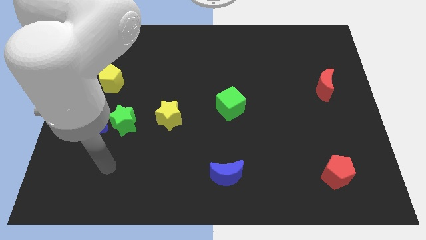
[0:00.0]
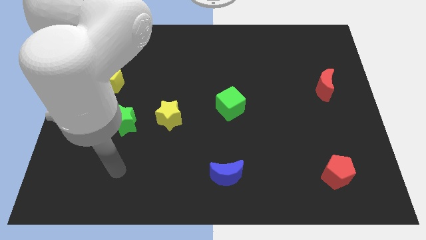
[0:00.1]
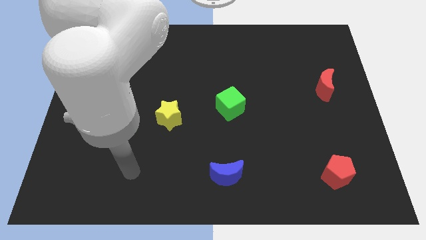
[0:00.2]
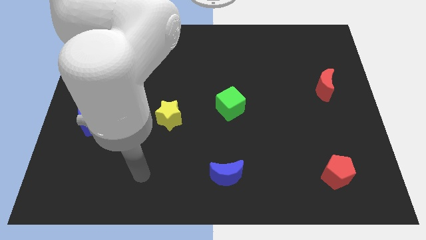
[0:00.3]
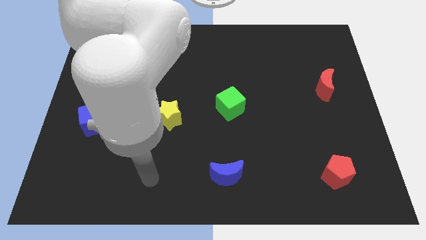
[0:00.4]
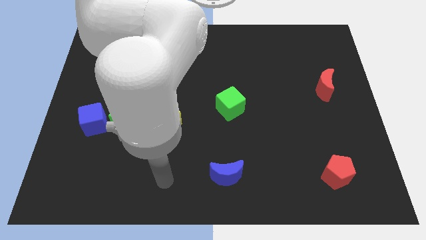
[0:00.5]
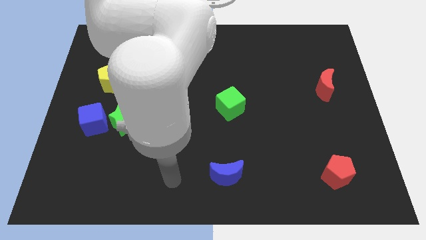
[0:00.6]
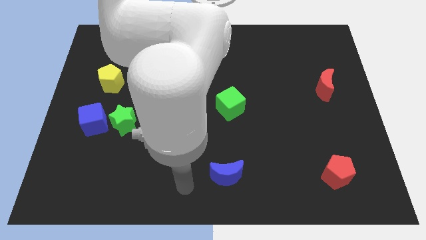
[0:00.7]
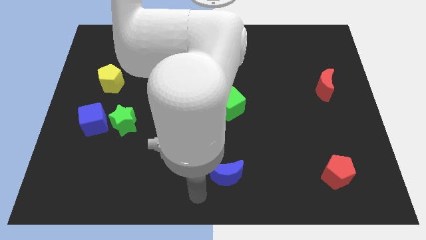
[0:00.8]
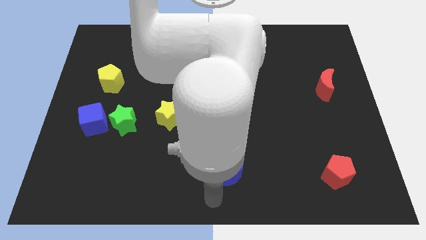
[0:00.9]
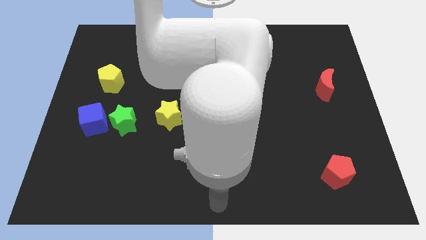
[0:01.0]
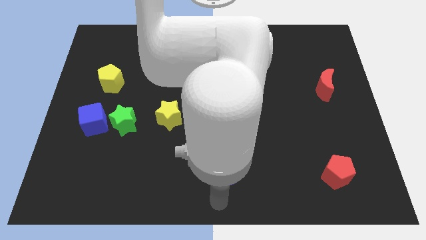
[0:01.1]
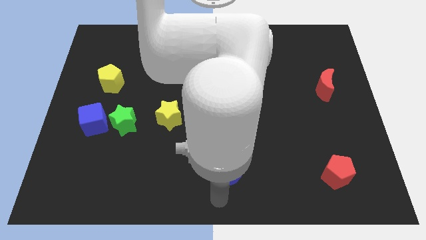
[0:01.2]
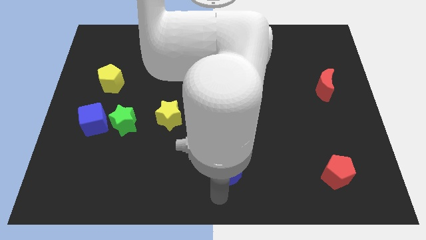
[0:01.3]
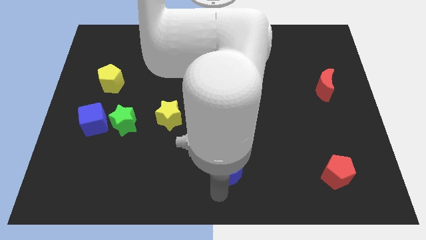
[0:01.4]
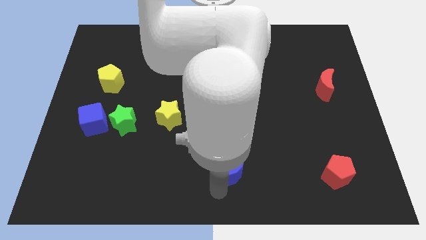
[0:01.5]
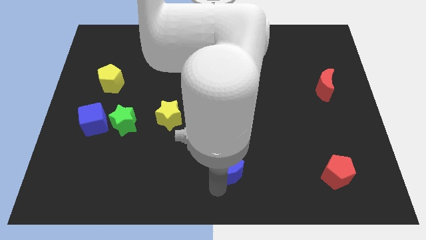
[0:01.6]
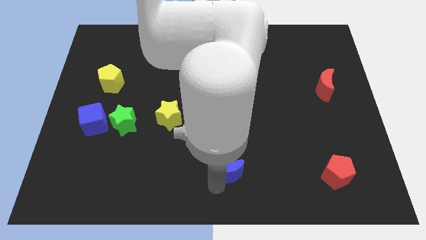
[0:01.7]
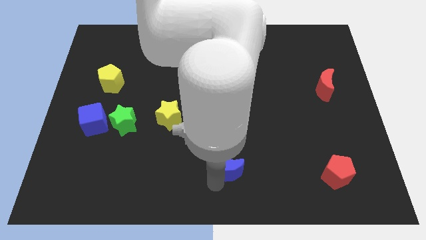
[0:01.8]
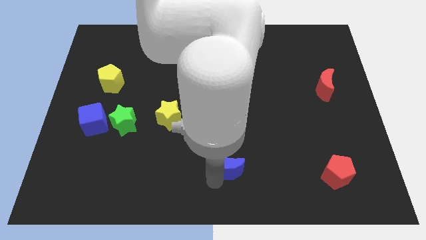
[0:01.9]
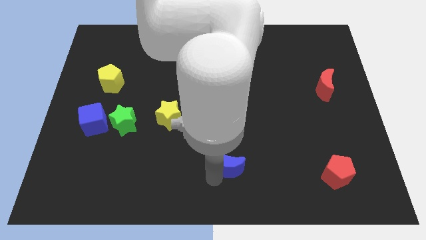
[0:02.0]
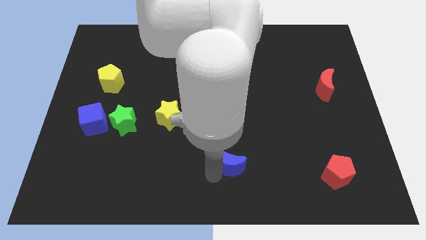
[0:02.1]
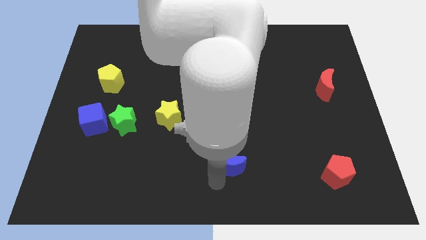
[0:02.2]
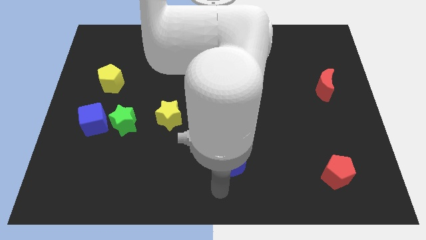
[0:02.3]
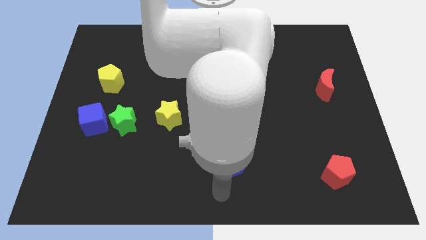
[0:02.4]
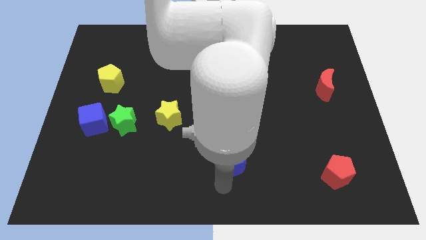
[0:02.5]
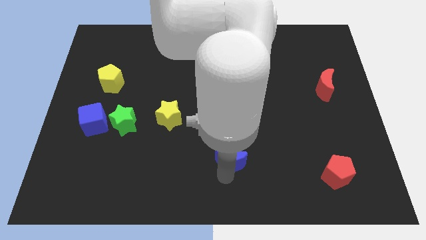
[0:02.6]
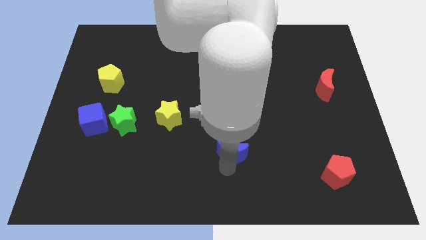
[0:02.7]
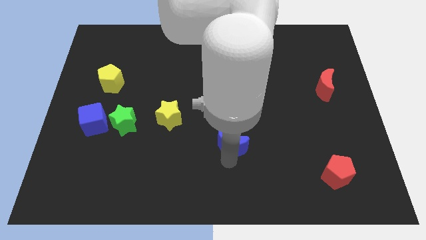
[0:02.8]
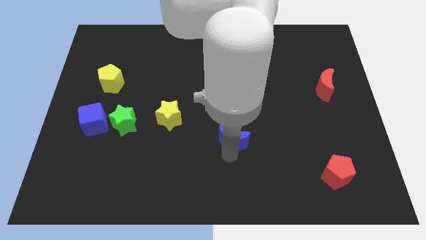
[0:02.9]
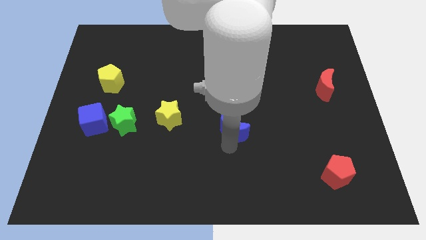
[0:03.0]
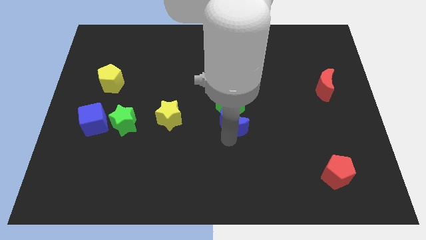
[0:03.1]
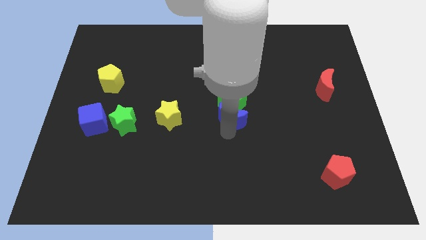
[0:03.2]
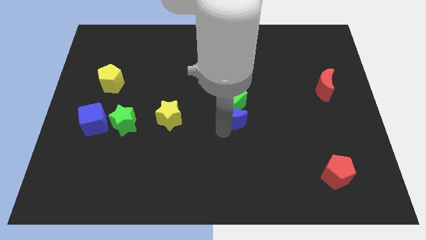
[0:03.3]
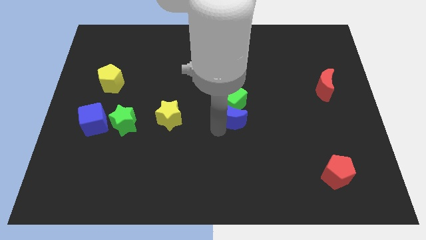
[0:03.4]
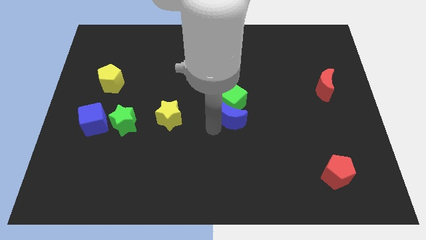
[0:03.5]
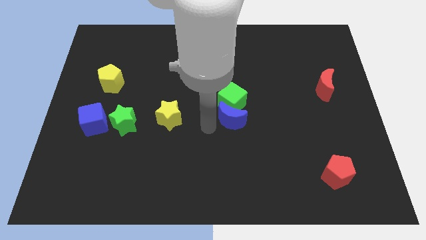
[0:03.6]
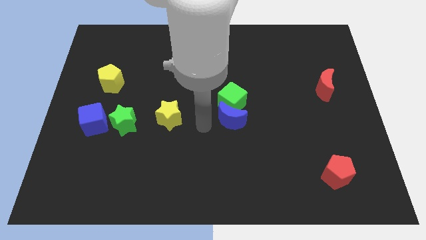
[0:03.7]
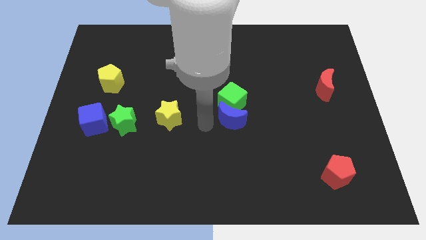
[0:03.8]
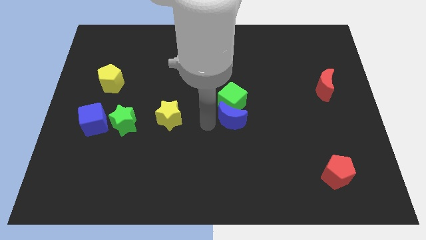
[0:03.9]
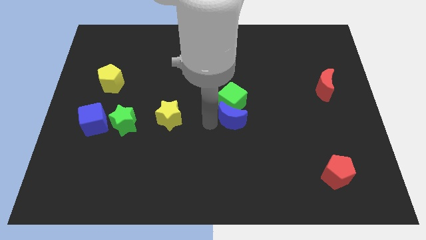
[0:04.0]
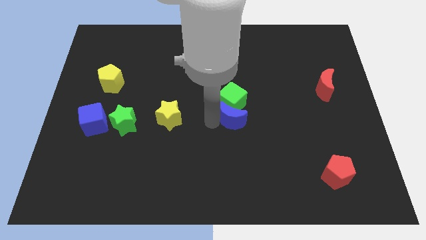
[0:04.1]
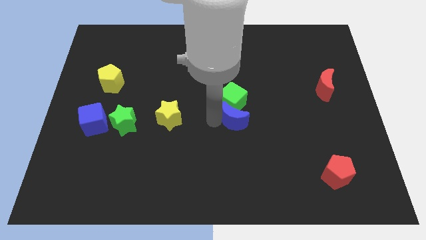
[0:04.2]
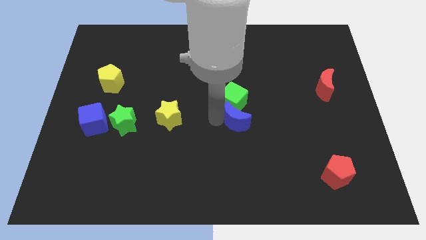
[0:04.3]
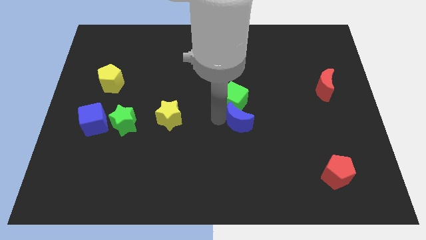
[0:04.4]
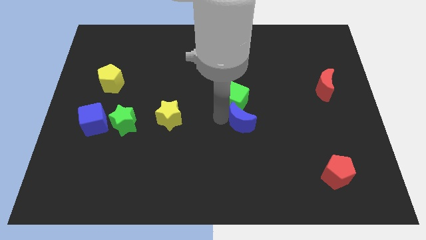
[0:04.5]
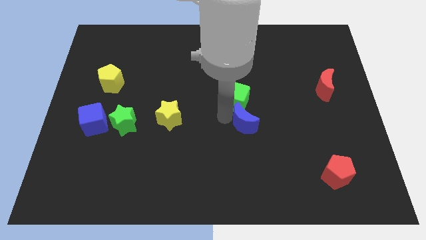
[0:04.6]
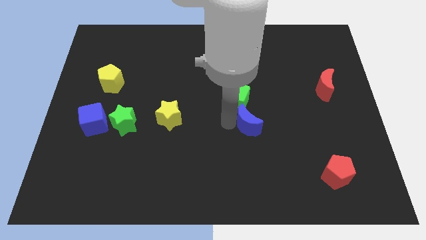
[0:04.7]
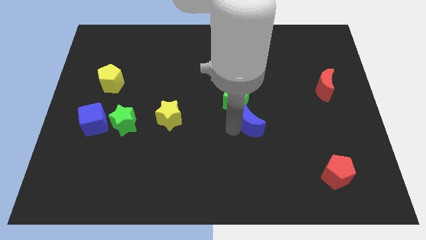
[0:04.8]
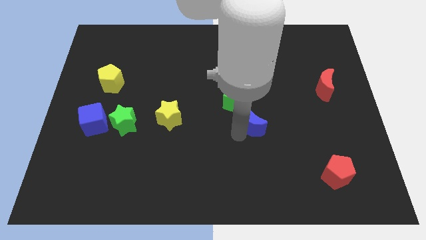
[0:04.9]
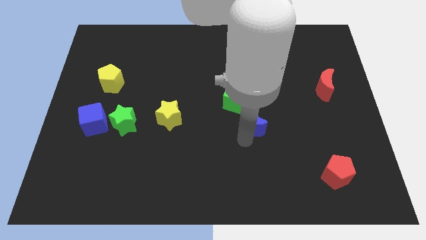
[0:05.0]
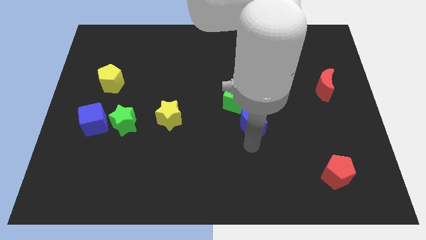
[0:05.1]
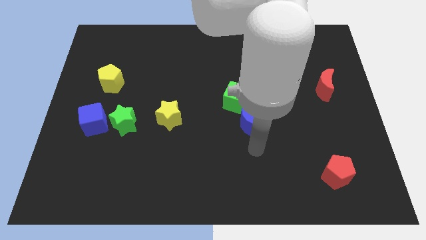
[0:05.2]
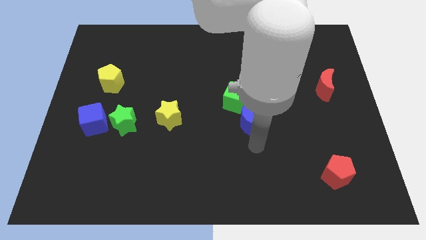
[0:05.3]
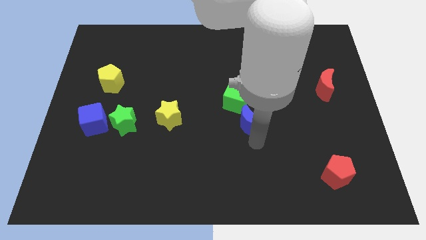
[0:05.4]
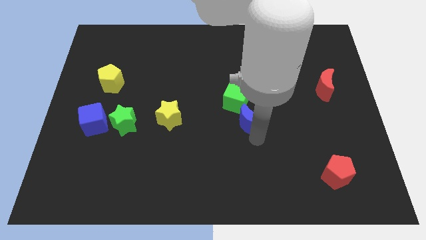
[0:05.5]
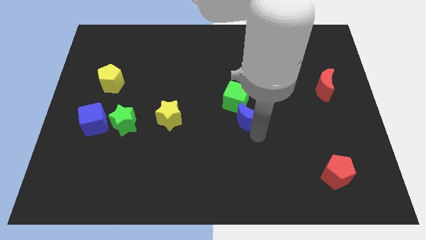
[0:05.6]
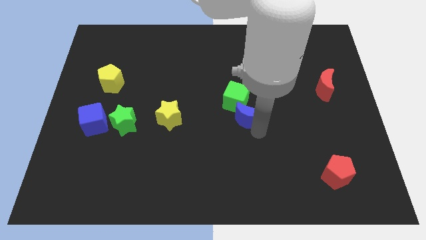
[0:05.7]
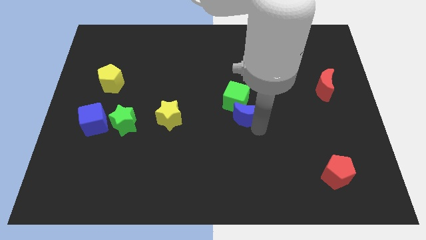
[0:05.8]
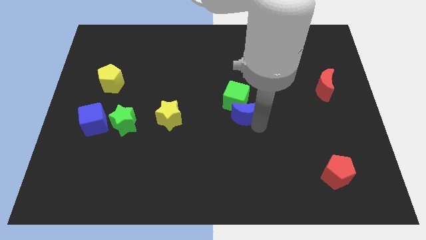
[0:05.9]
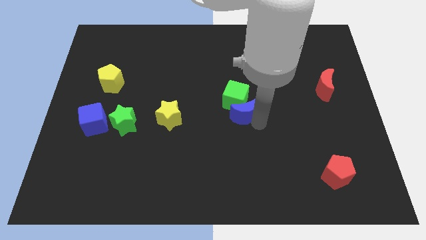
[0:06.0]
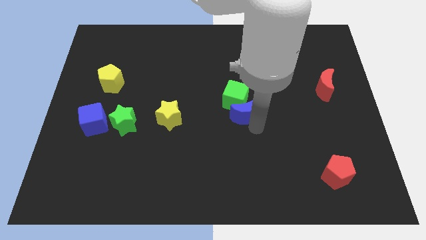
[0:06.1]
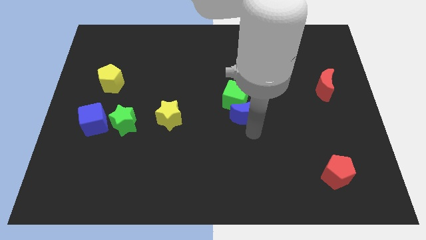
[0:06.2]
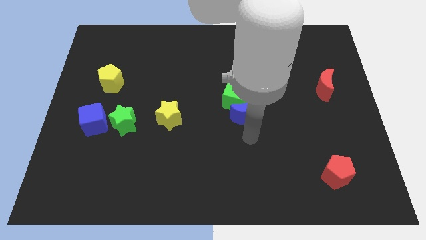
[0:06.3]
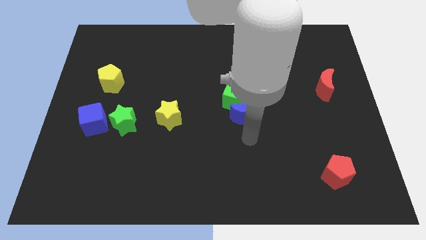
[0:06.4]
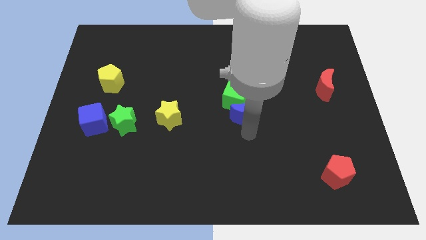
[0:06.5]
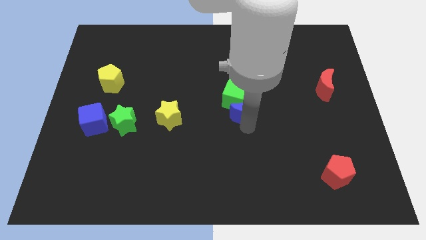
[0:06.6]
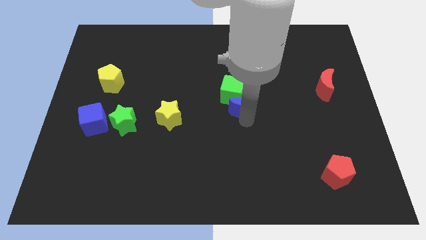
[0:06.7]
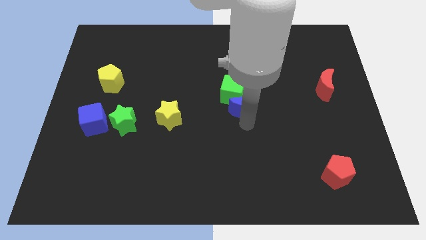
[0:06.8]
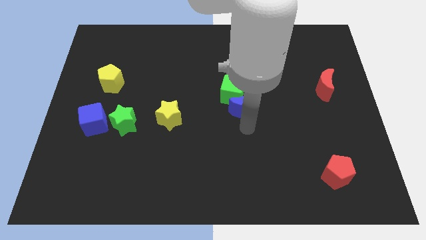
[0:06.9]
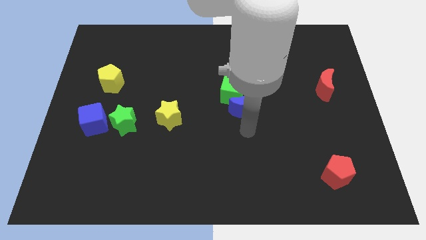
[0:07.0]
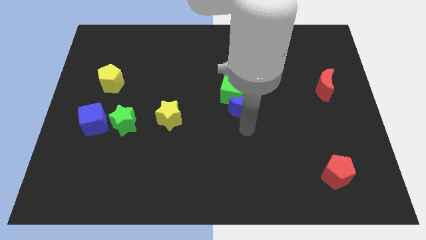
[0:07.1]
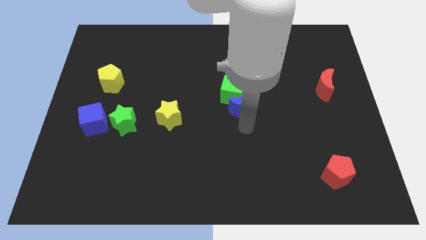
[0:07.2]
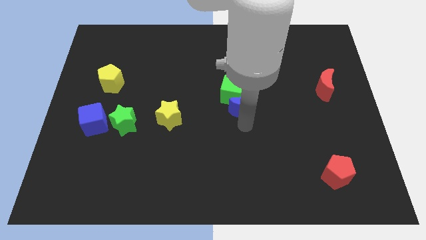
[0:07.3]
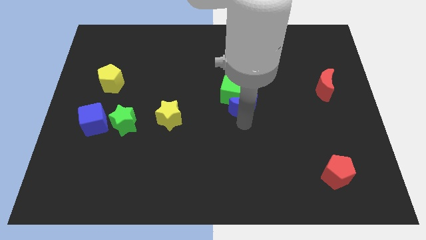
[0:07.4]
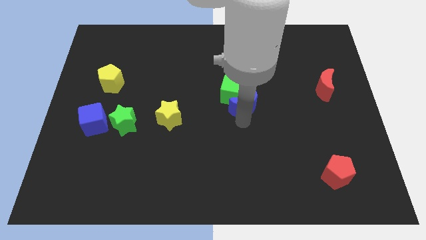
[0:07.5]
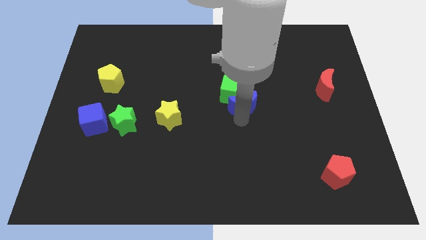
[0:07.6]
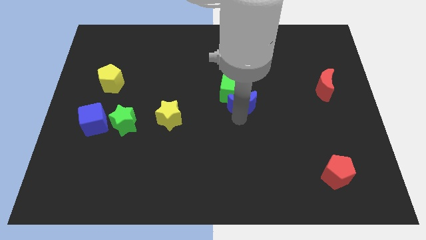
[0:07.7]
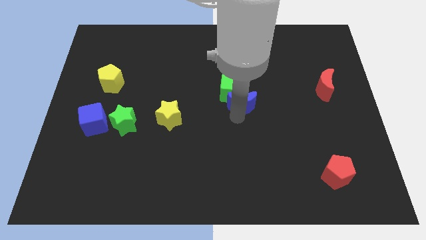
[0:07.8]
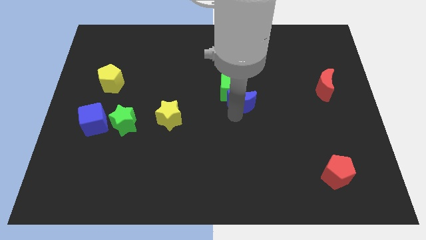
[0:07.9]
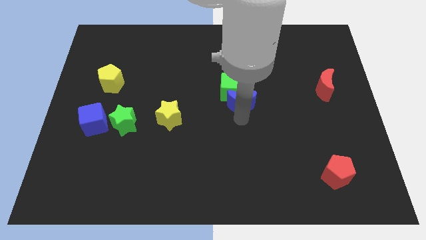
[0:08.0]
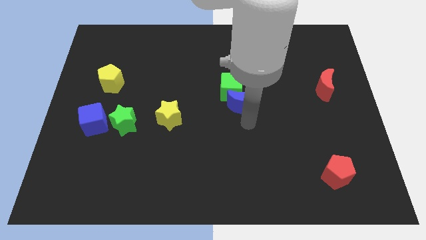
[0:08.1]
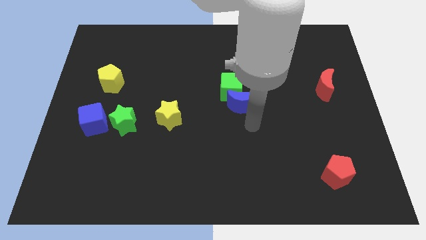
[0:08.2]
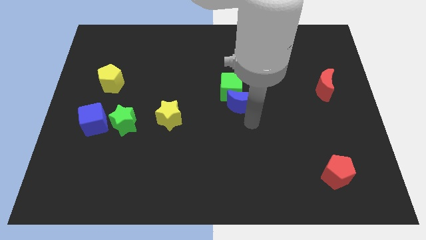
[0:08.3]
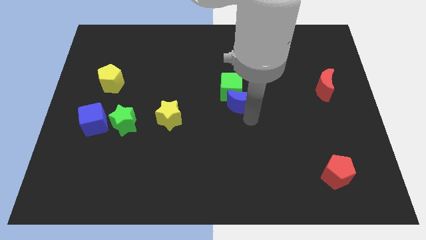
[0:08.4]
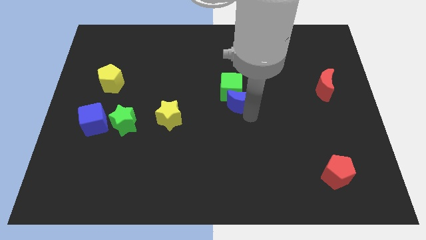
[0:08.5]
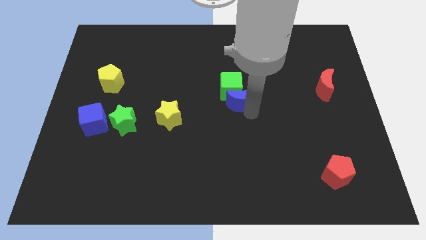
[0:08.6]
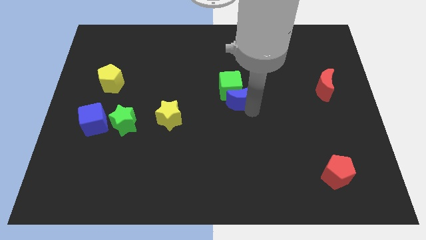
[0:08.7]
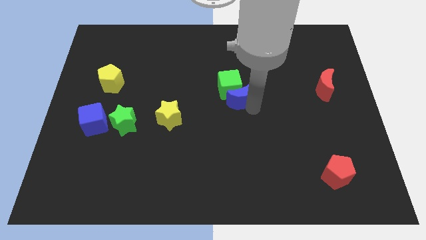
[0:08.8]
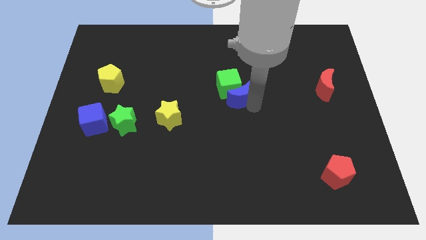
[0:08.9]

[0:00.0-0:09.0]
slide the blue moon up
